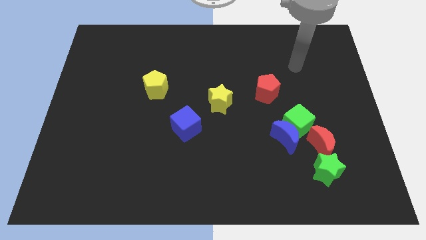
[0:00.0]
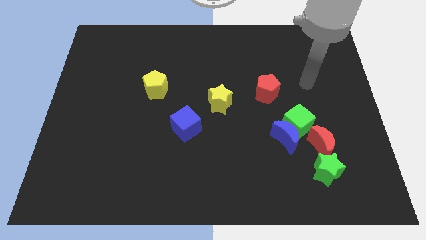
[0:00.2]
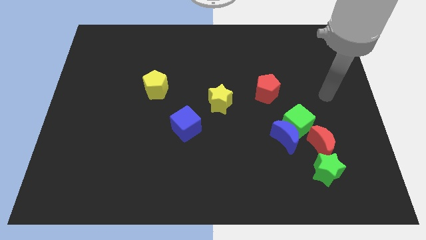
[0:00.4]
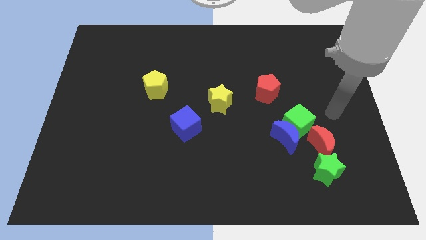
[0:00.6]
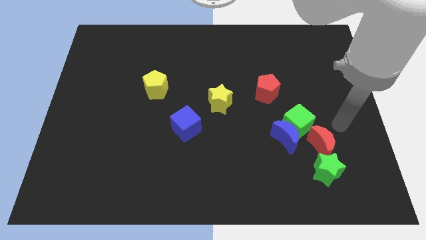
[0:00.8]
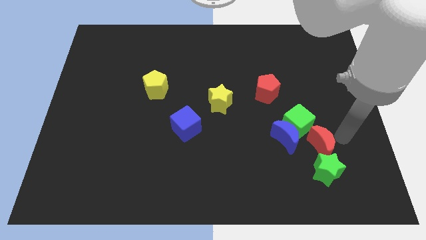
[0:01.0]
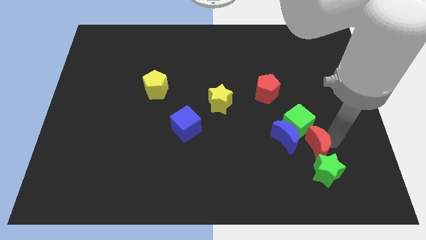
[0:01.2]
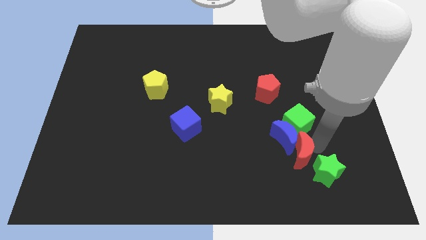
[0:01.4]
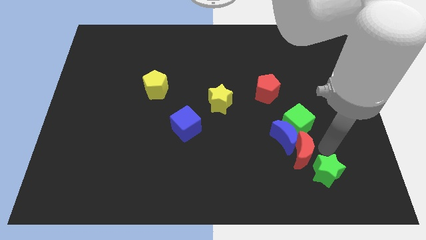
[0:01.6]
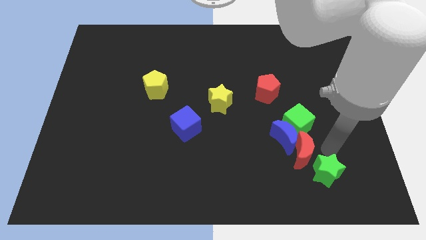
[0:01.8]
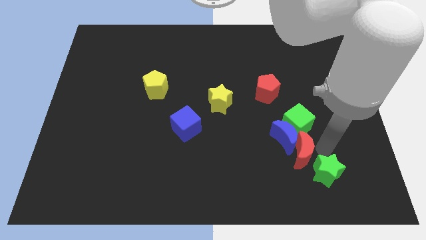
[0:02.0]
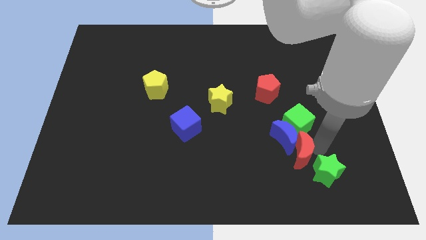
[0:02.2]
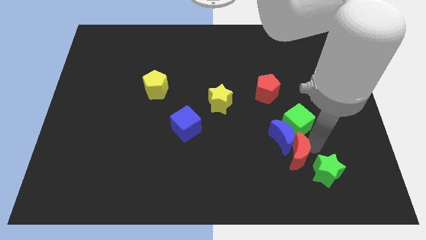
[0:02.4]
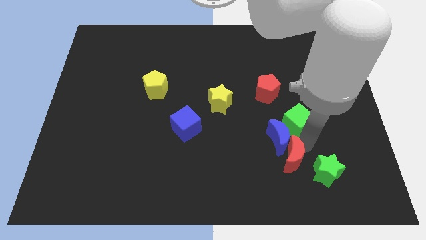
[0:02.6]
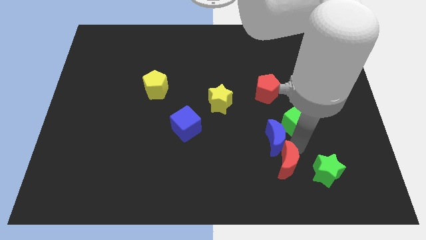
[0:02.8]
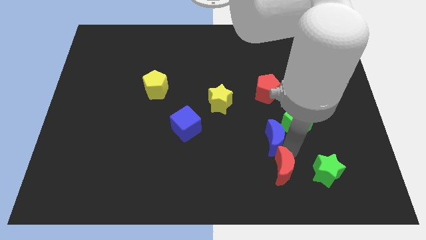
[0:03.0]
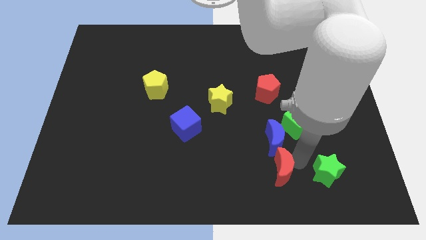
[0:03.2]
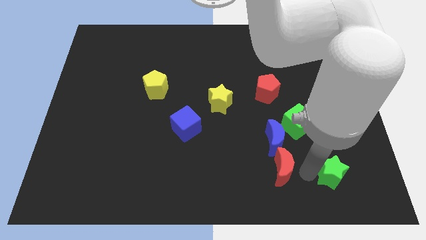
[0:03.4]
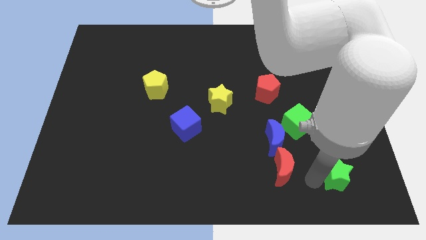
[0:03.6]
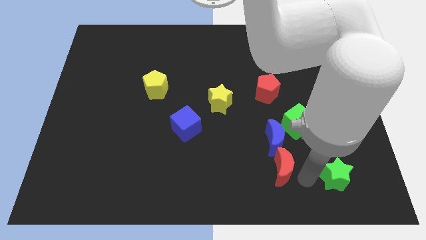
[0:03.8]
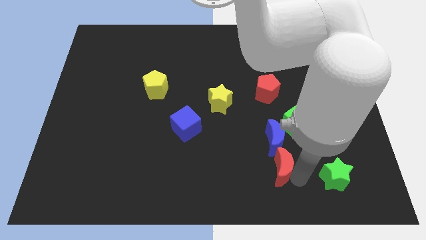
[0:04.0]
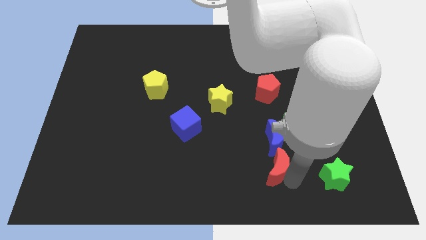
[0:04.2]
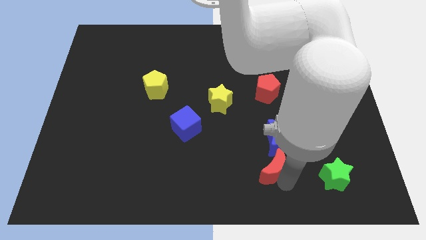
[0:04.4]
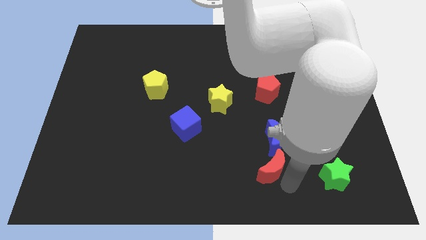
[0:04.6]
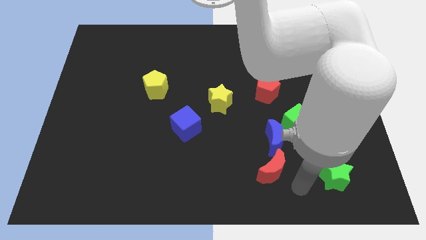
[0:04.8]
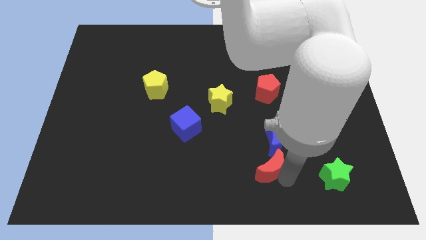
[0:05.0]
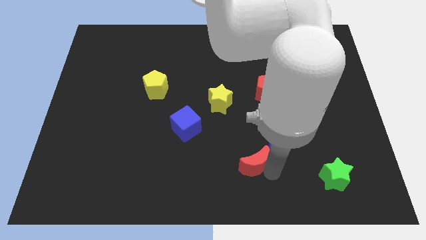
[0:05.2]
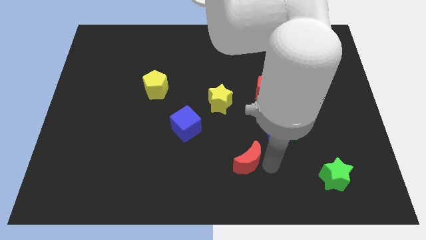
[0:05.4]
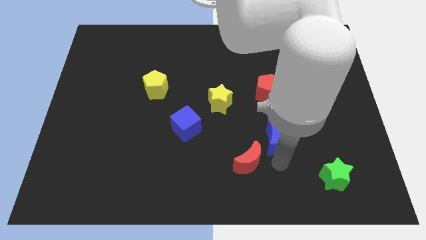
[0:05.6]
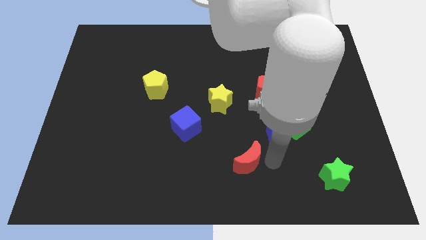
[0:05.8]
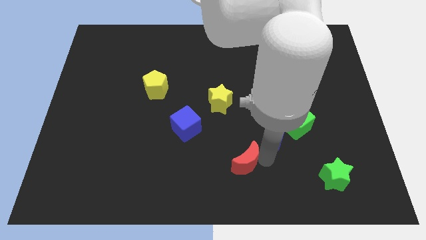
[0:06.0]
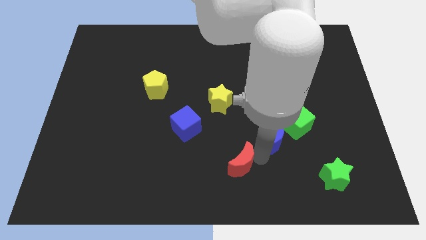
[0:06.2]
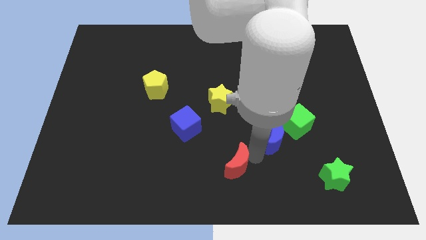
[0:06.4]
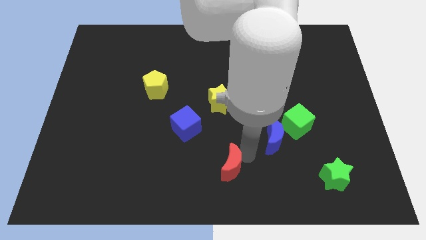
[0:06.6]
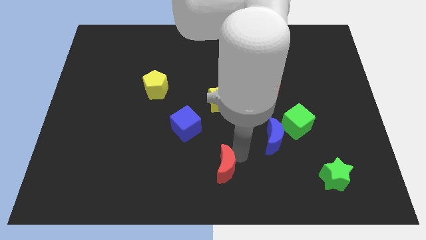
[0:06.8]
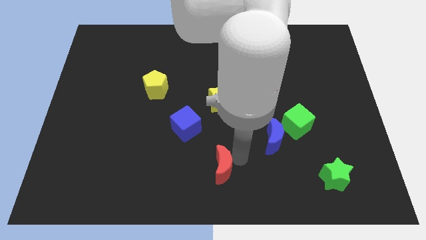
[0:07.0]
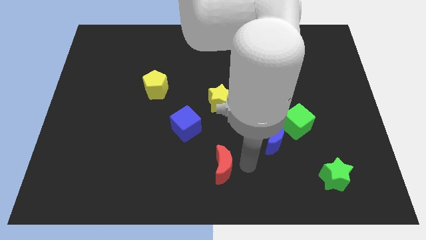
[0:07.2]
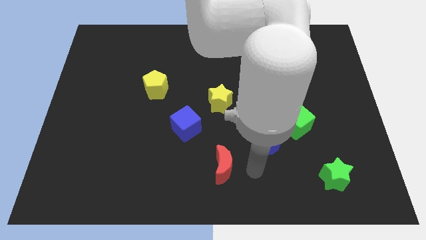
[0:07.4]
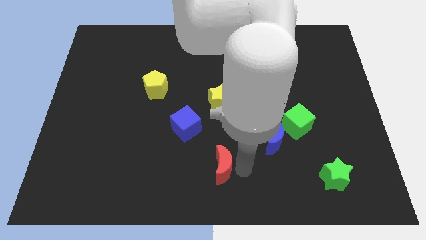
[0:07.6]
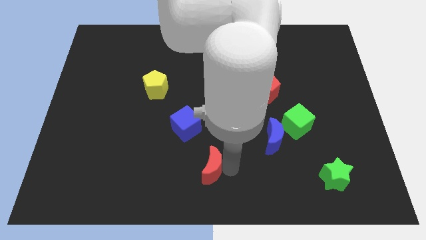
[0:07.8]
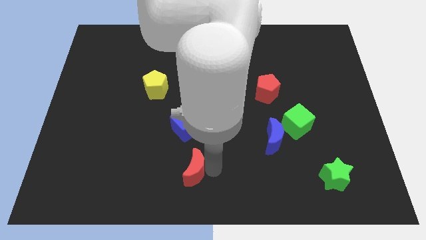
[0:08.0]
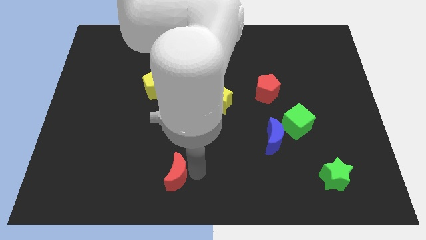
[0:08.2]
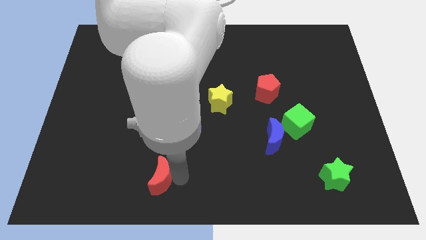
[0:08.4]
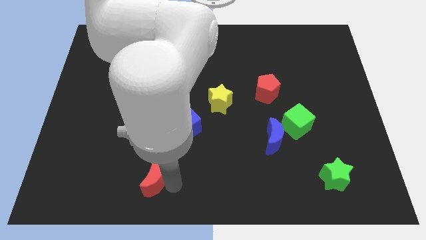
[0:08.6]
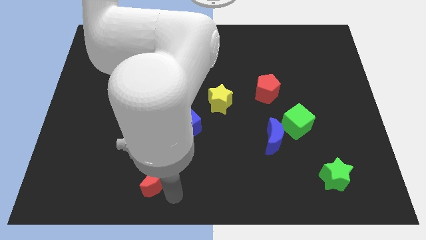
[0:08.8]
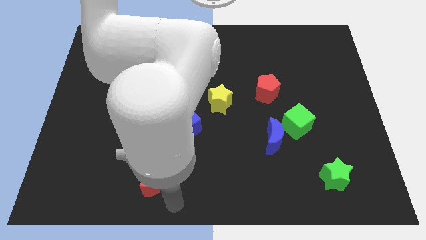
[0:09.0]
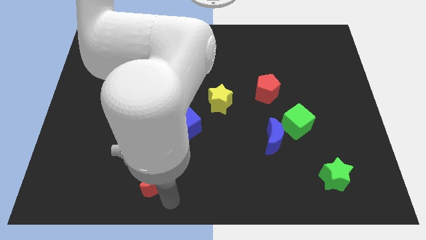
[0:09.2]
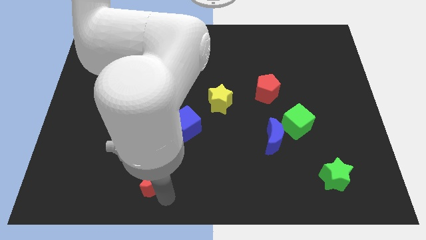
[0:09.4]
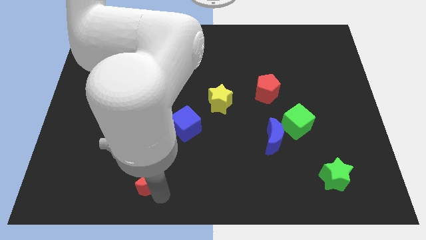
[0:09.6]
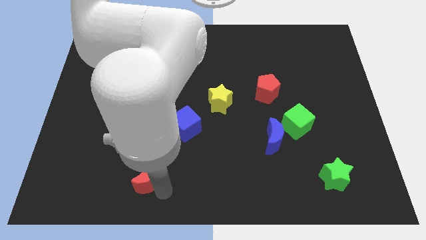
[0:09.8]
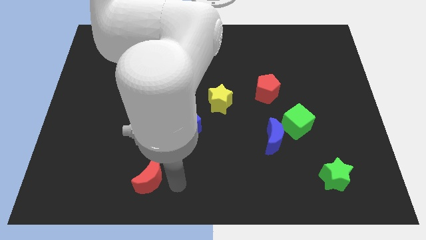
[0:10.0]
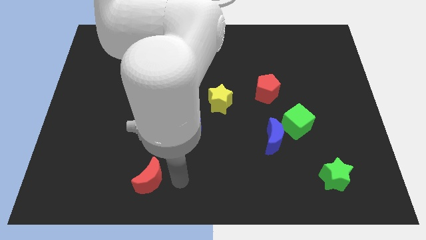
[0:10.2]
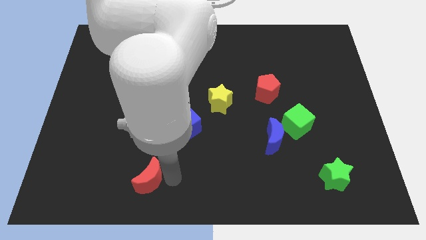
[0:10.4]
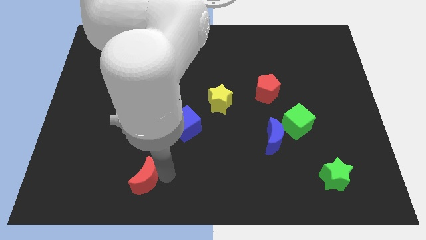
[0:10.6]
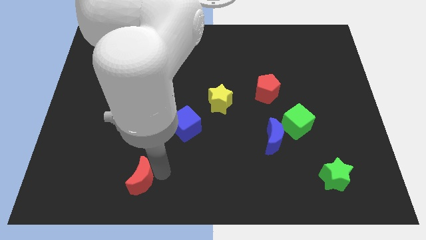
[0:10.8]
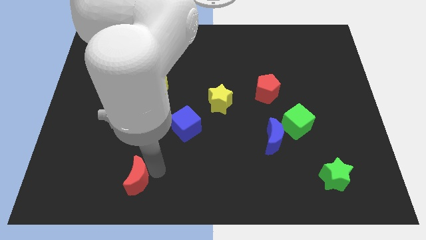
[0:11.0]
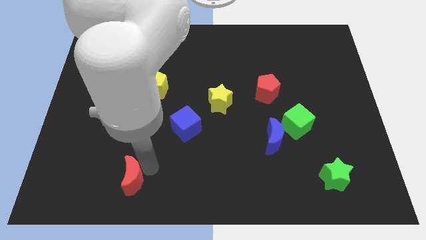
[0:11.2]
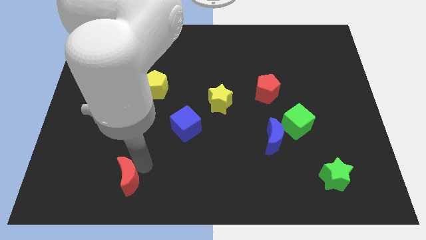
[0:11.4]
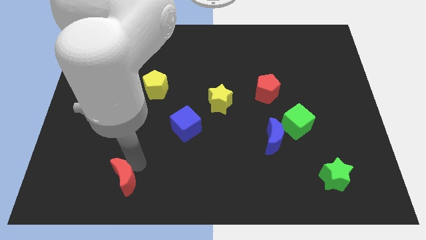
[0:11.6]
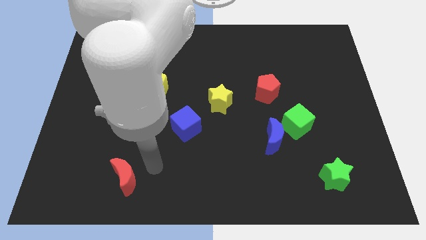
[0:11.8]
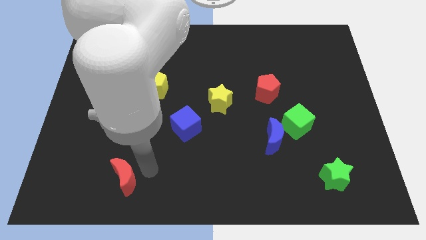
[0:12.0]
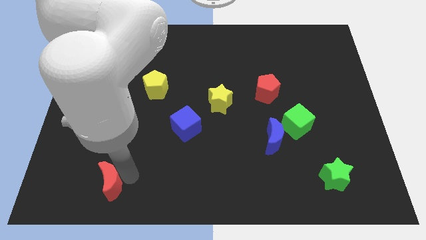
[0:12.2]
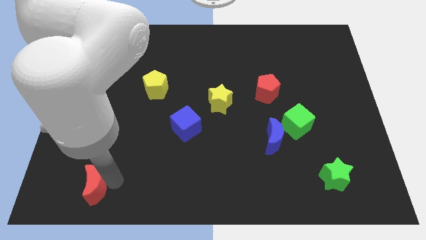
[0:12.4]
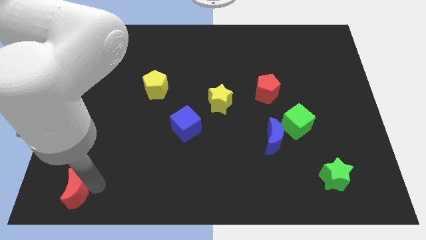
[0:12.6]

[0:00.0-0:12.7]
slide the red moon to the lower left corner
